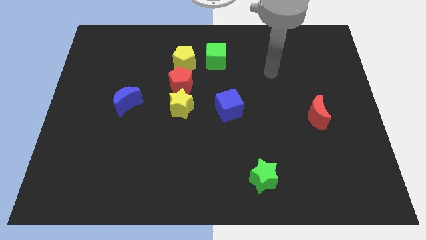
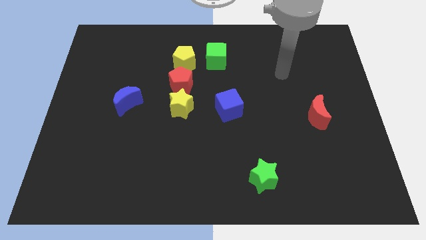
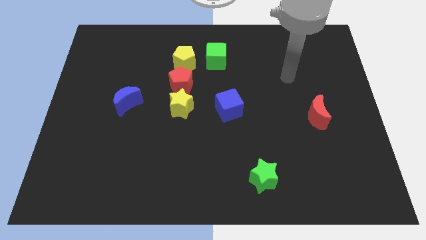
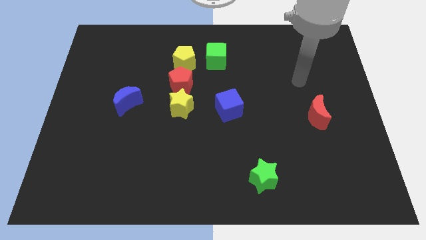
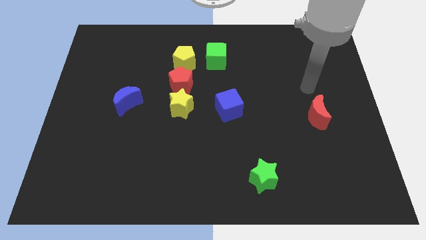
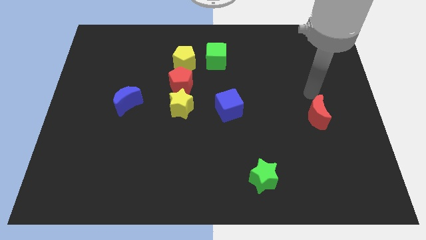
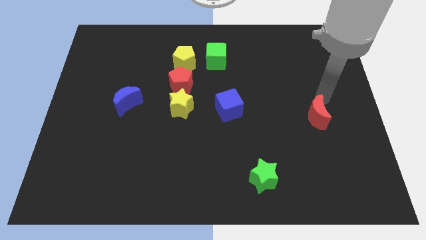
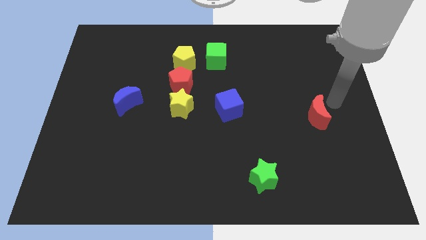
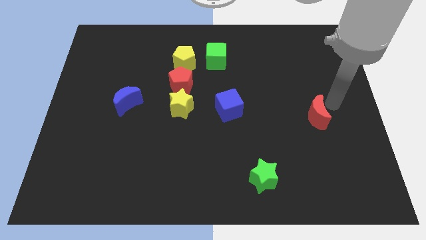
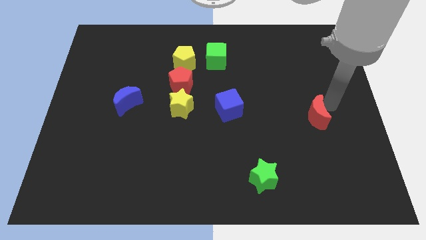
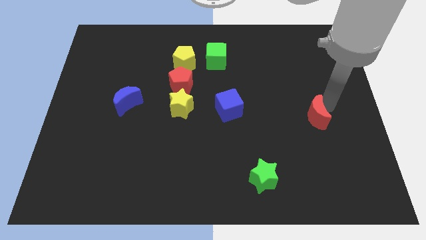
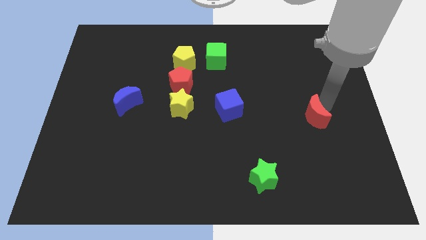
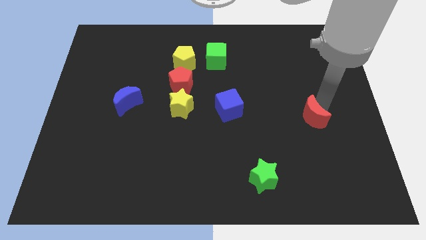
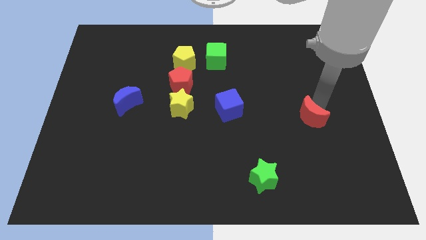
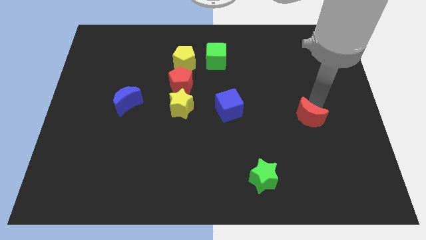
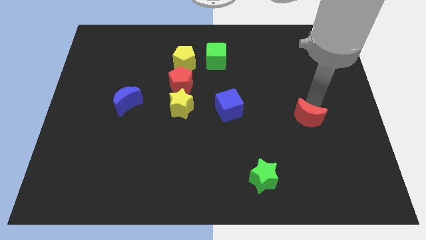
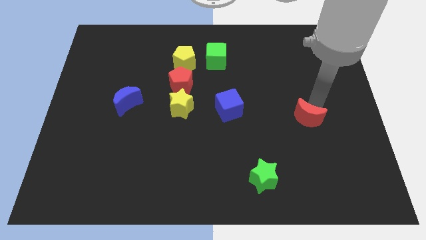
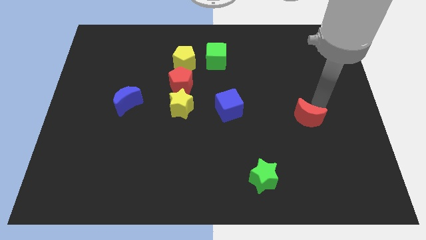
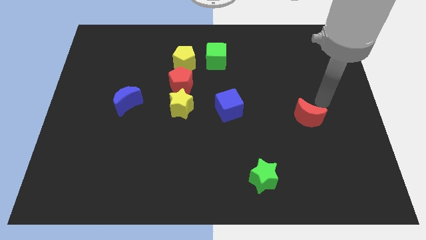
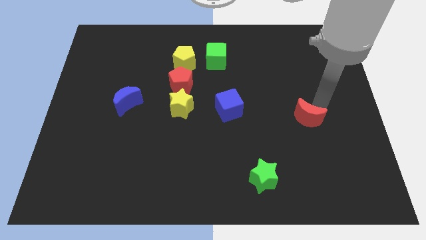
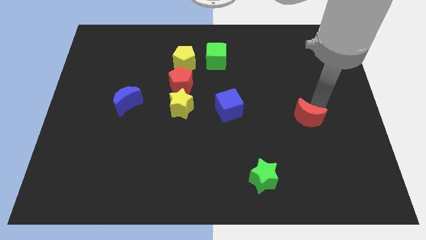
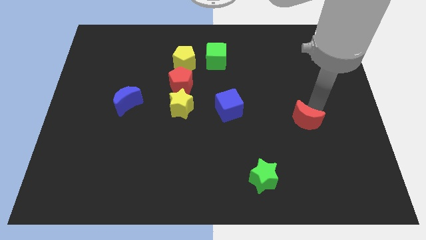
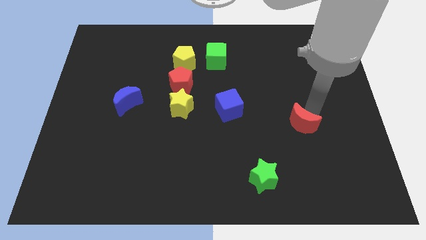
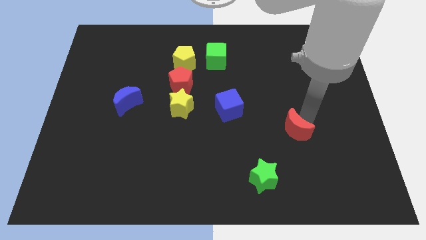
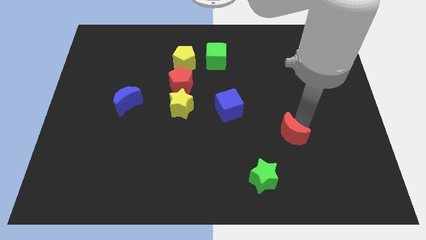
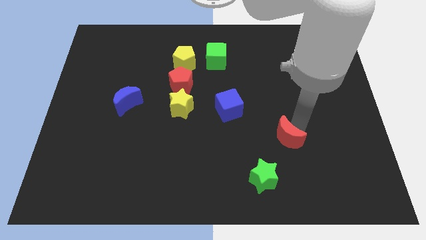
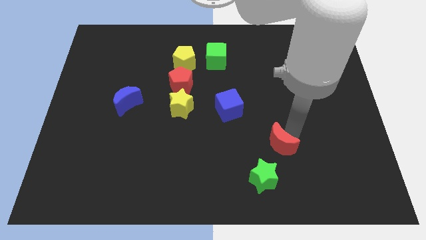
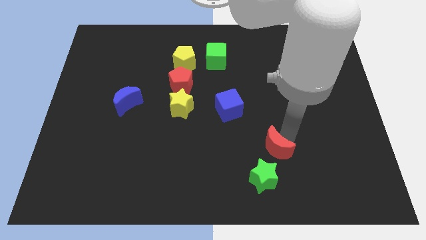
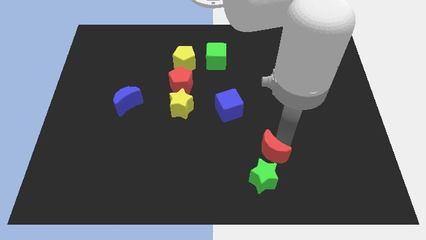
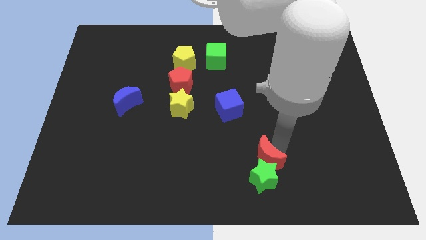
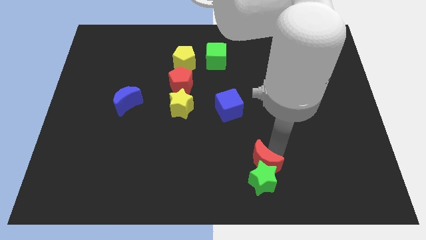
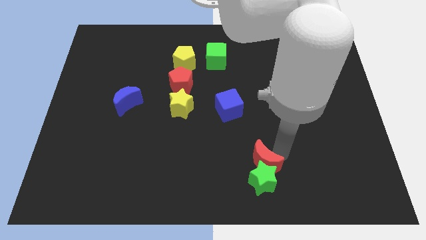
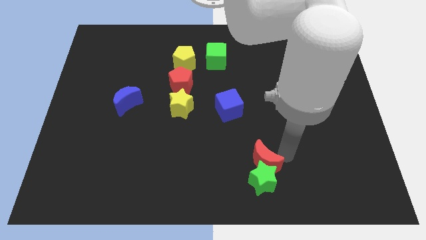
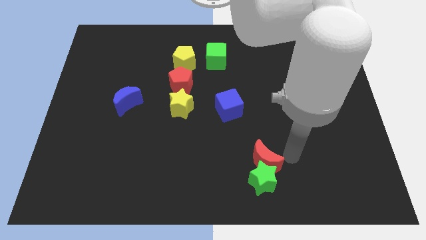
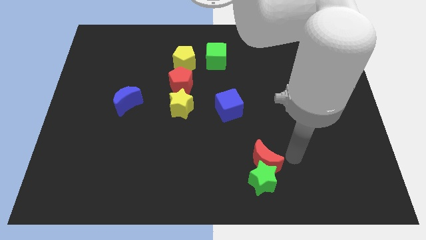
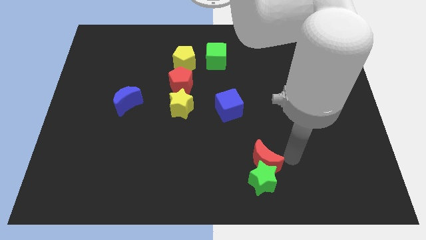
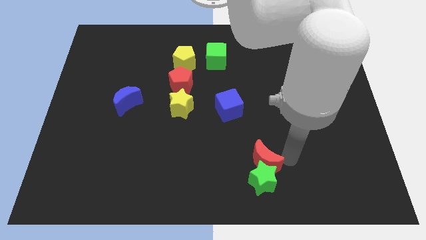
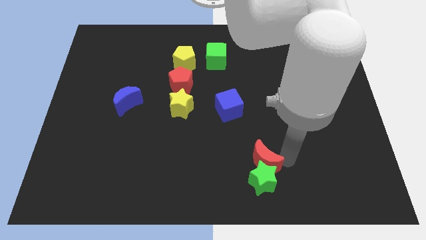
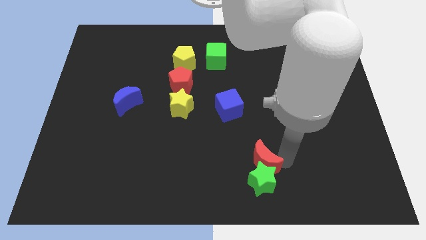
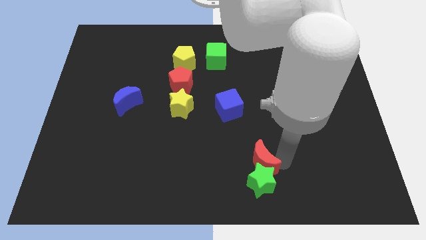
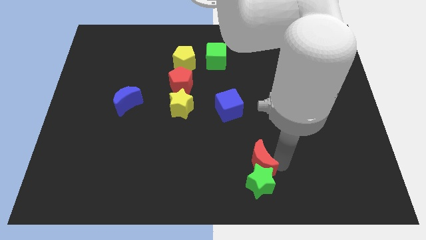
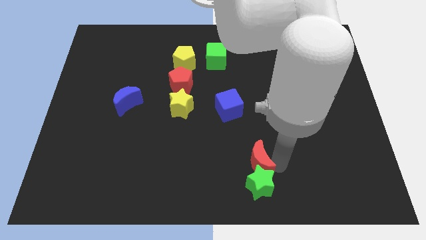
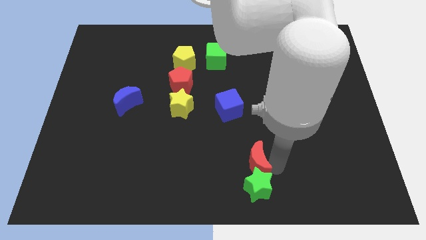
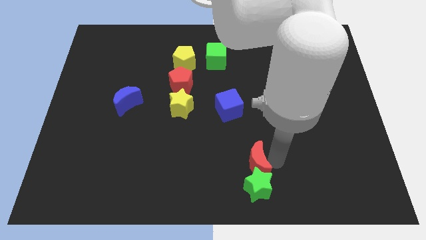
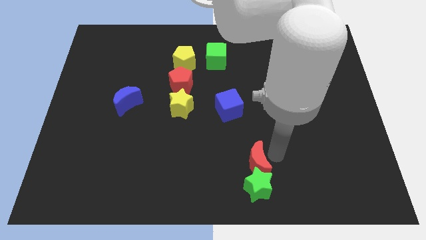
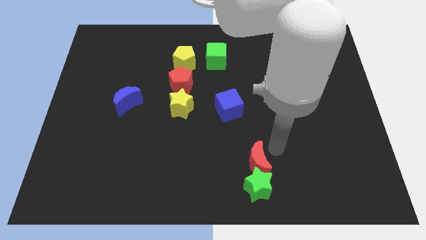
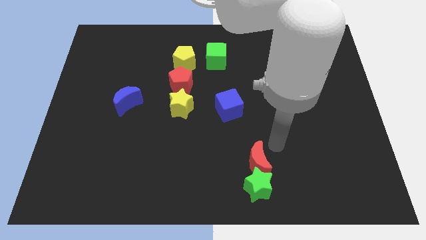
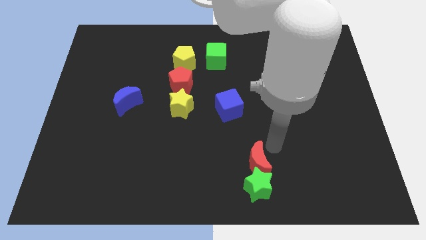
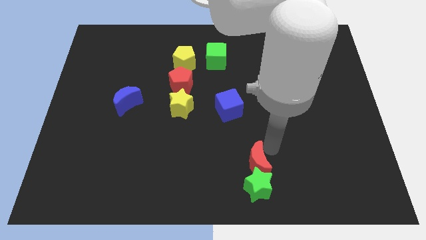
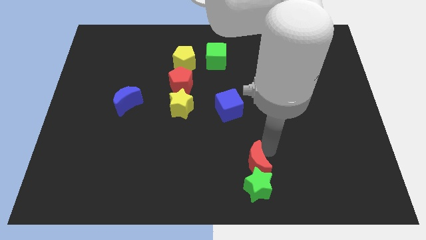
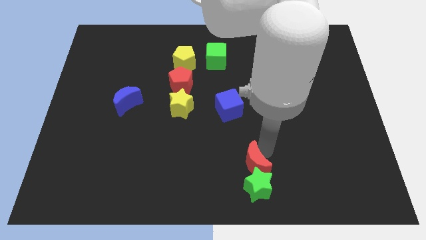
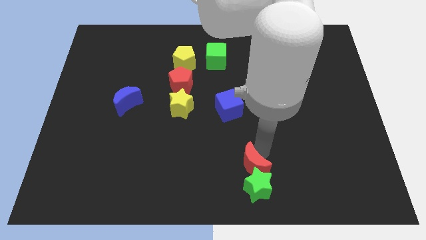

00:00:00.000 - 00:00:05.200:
slide the red moon to the bottom

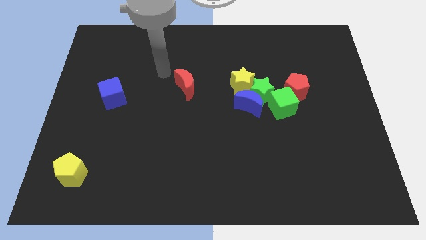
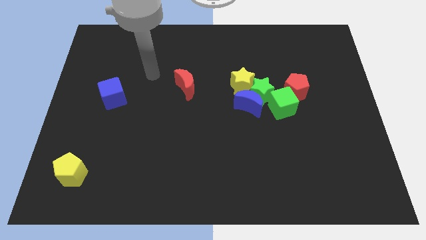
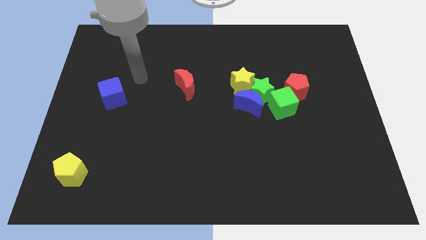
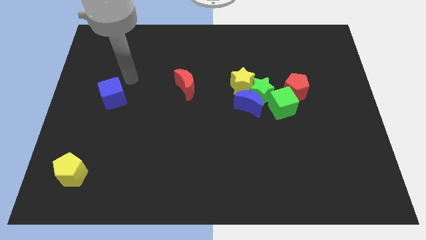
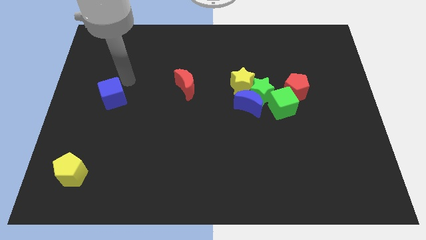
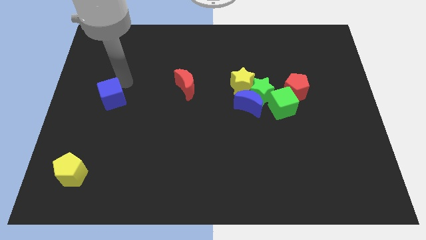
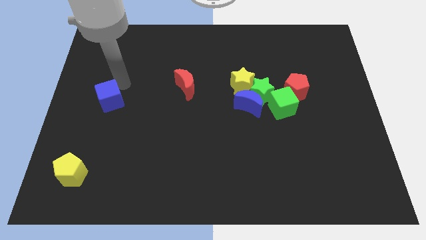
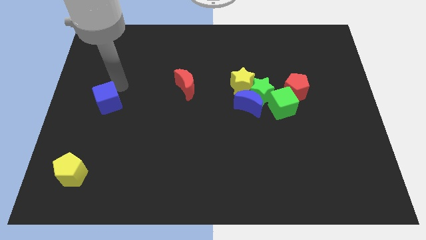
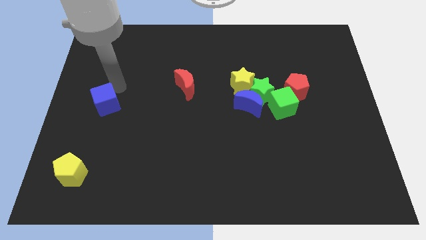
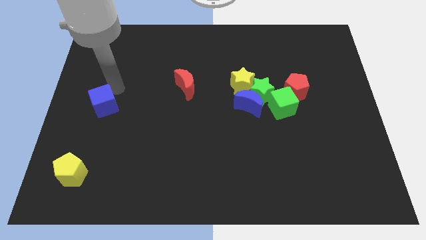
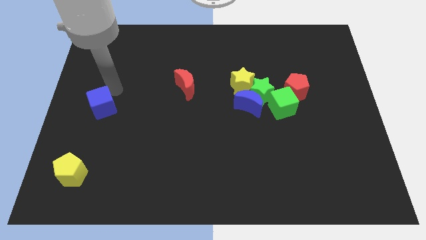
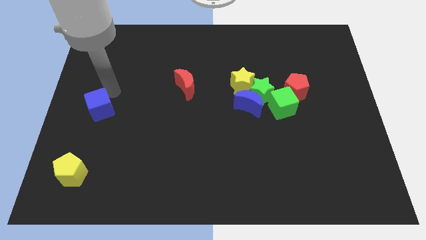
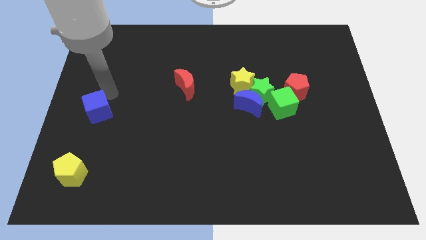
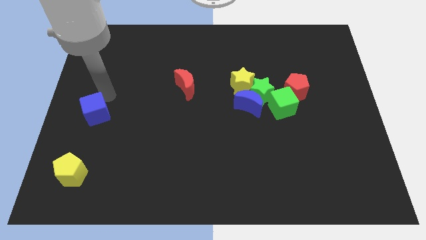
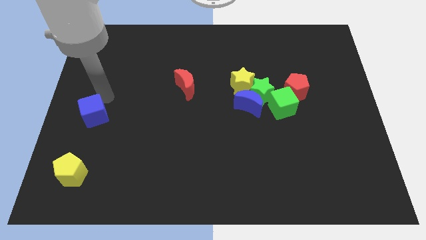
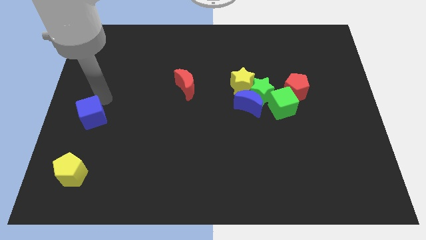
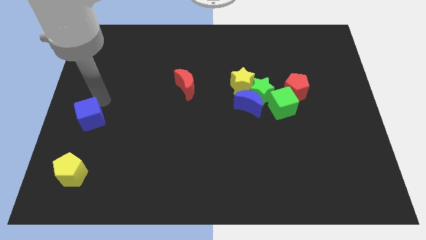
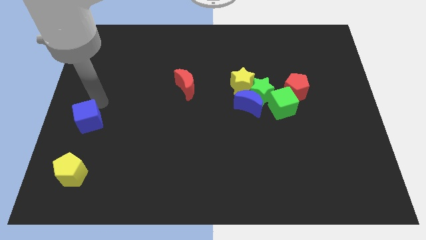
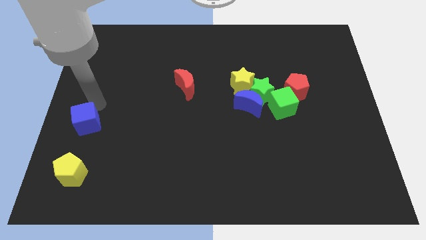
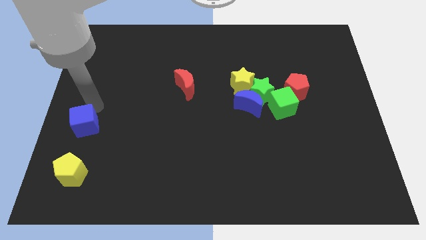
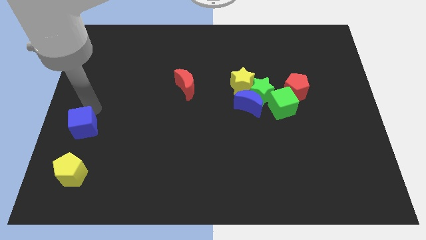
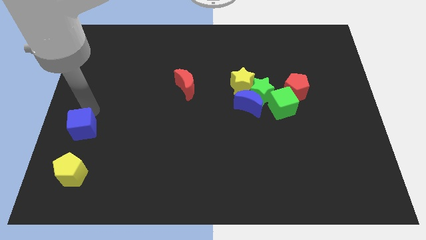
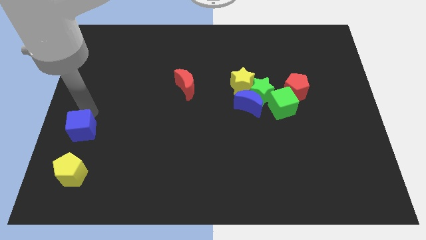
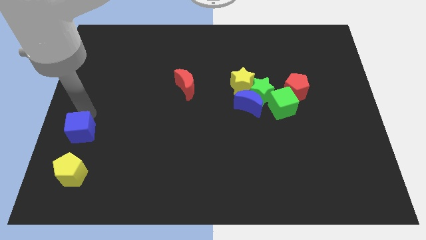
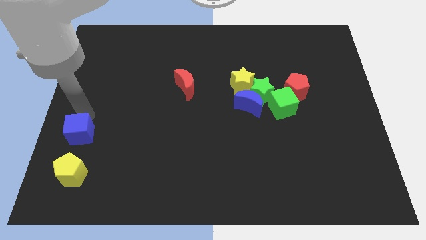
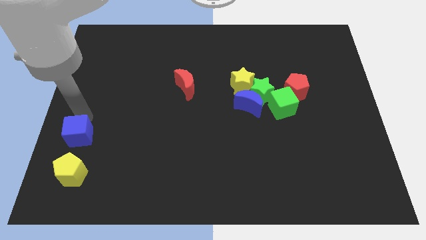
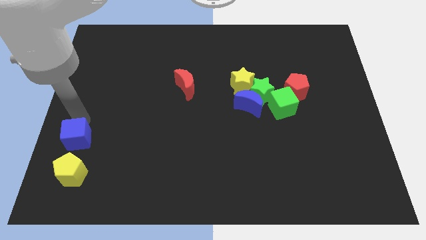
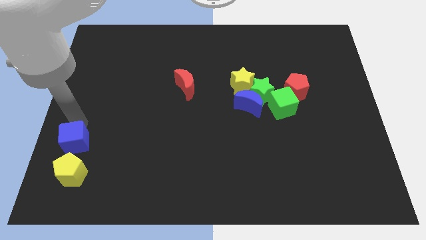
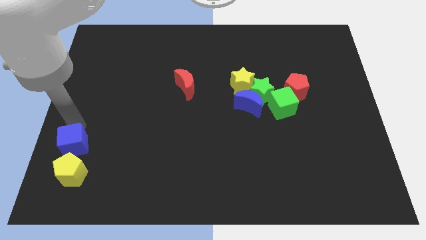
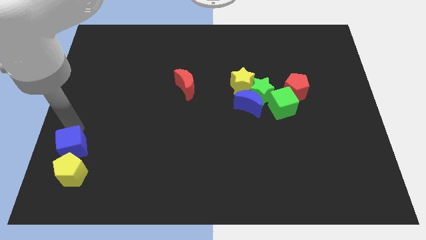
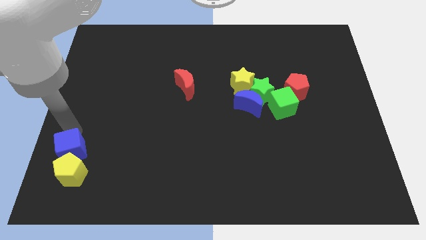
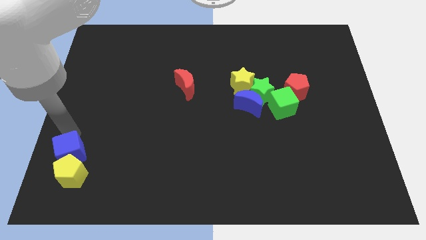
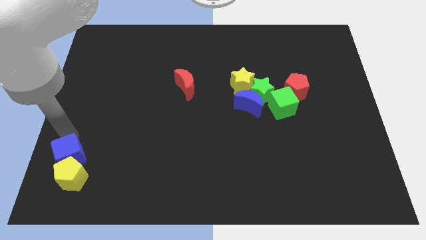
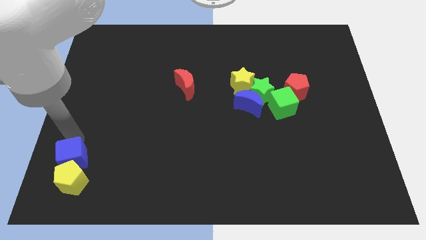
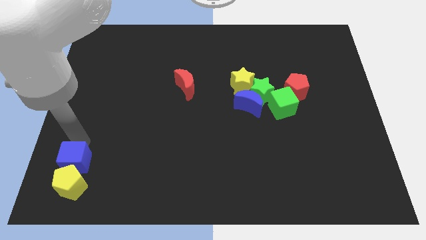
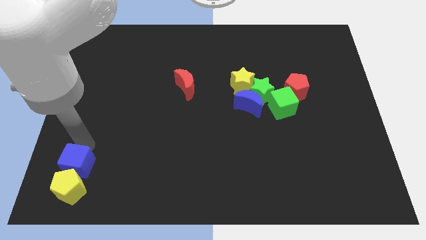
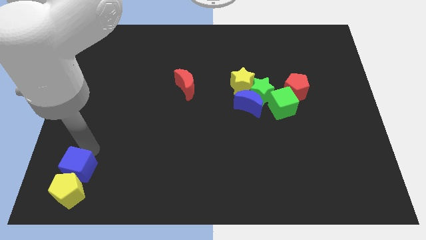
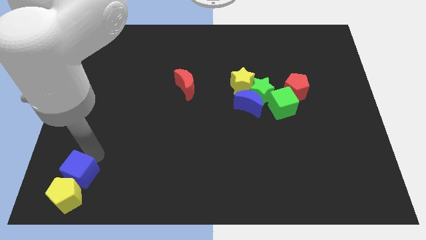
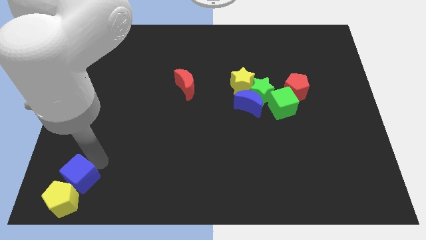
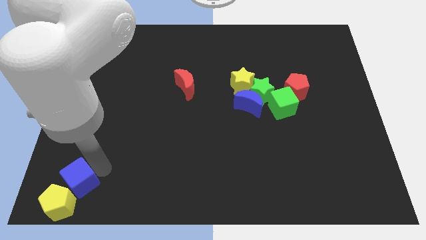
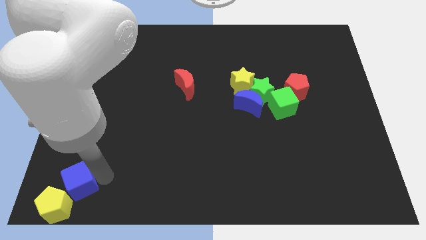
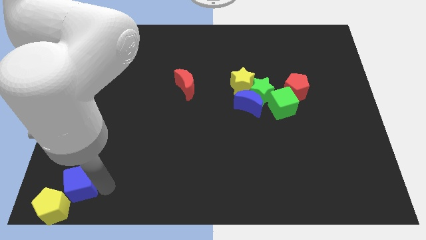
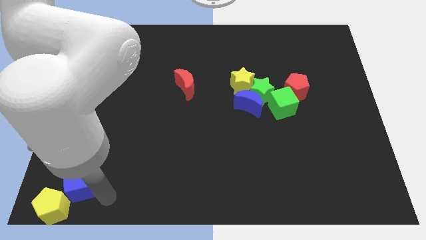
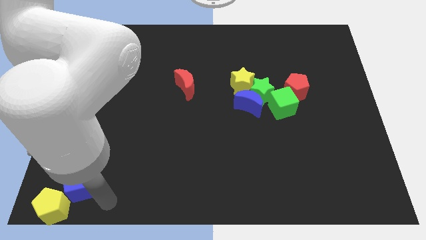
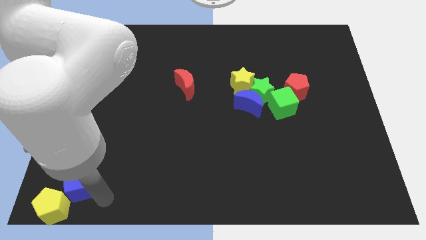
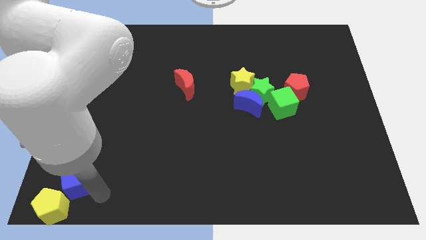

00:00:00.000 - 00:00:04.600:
put the blue cube to the bottom left corner
